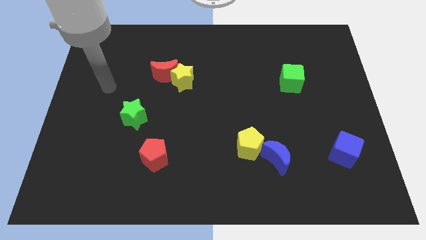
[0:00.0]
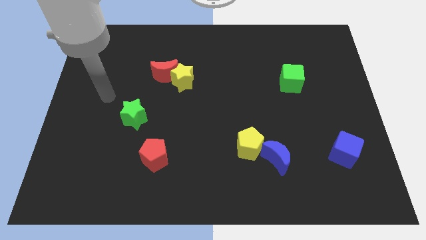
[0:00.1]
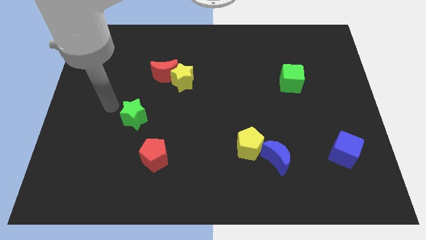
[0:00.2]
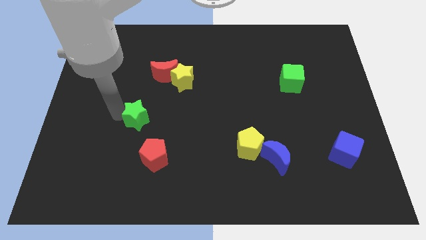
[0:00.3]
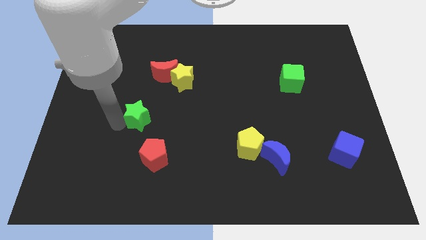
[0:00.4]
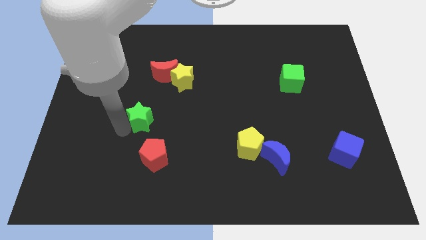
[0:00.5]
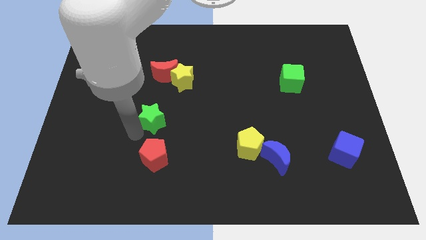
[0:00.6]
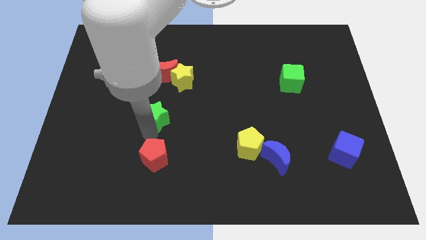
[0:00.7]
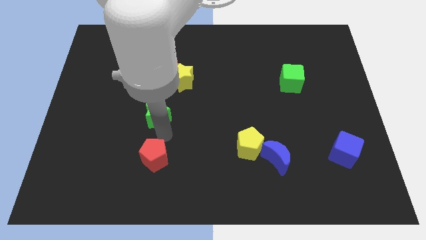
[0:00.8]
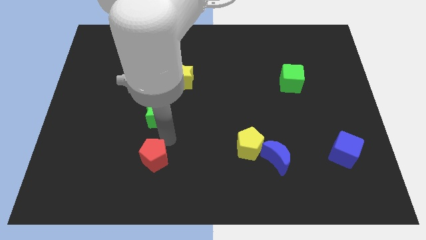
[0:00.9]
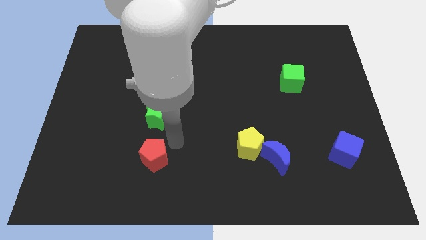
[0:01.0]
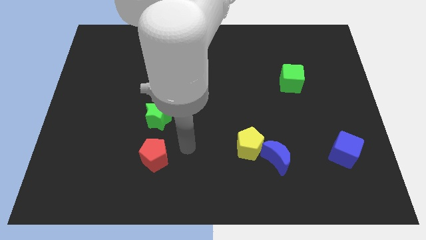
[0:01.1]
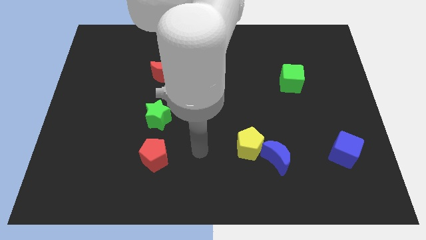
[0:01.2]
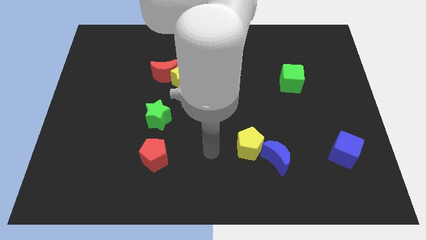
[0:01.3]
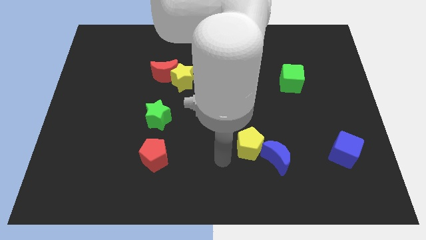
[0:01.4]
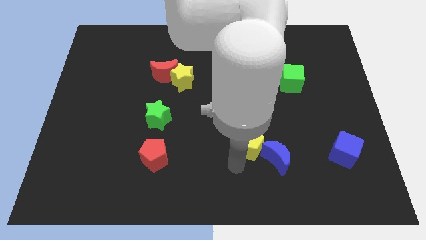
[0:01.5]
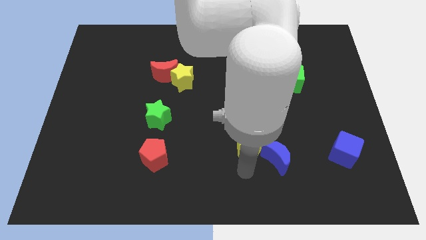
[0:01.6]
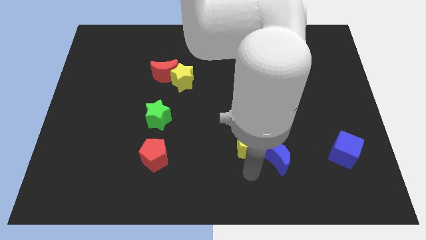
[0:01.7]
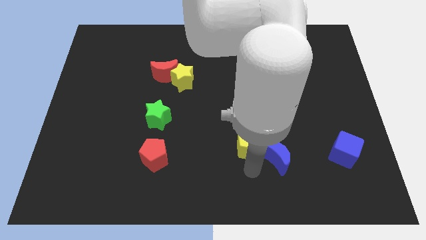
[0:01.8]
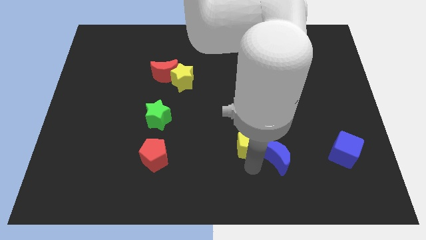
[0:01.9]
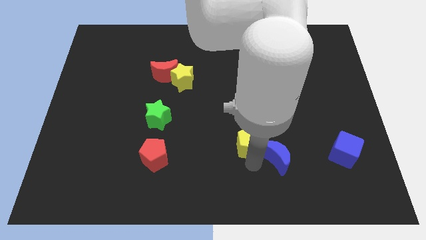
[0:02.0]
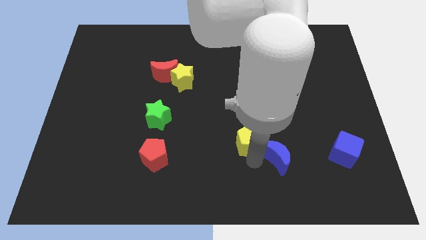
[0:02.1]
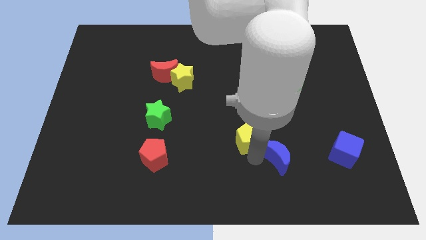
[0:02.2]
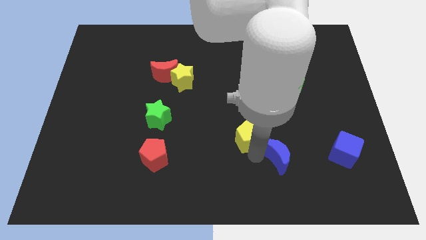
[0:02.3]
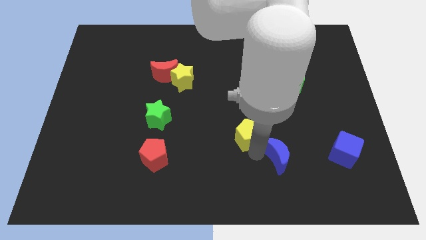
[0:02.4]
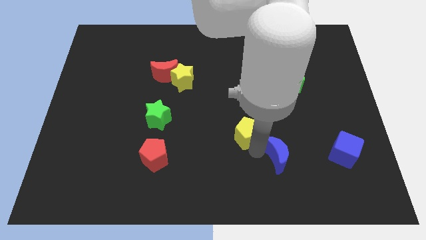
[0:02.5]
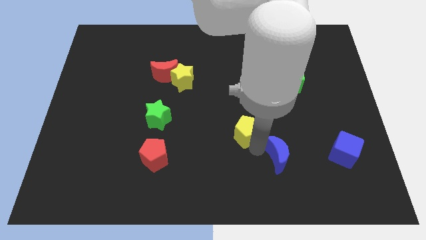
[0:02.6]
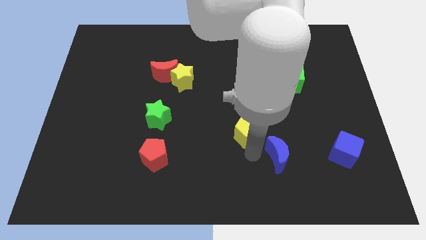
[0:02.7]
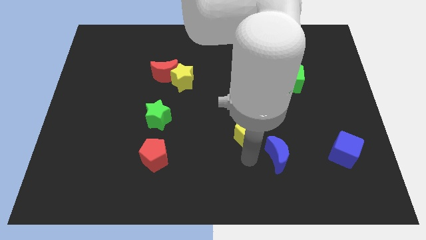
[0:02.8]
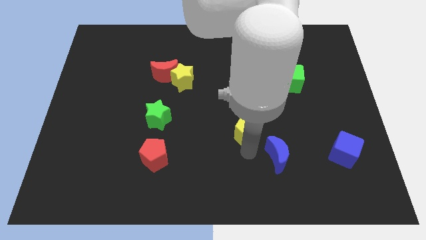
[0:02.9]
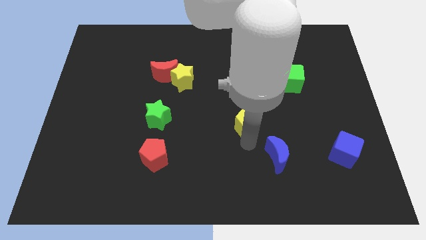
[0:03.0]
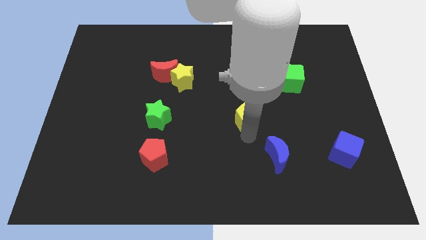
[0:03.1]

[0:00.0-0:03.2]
slightly push the yellow pentagon up

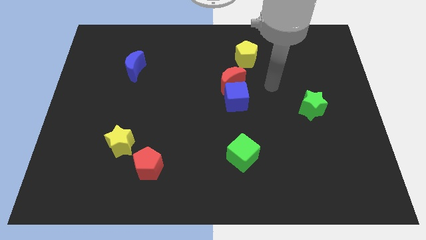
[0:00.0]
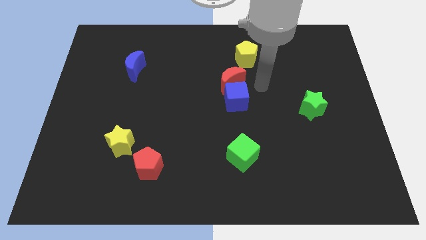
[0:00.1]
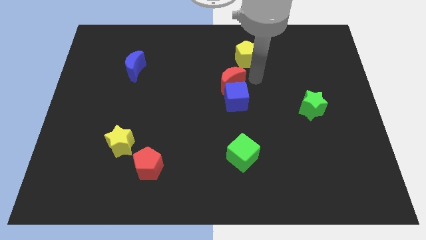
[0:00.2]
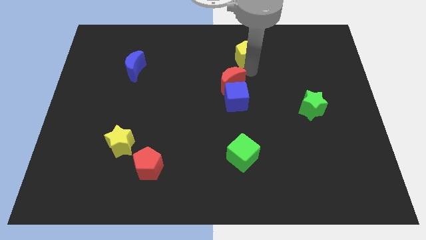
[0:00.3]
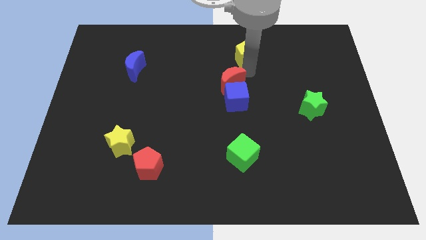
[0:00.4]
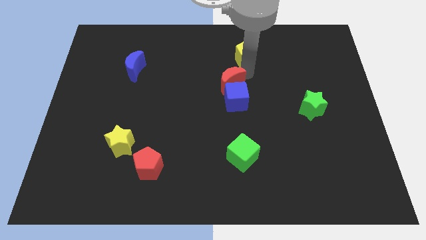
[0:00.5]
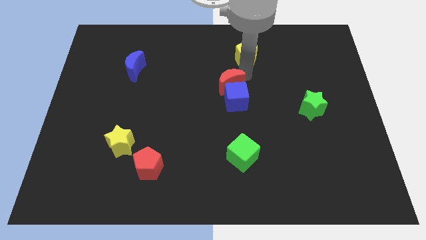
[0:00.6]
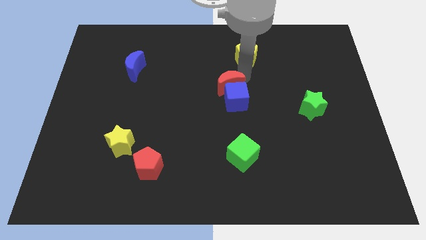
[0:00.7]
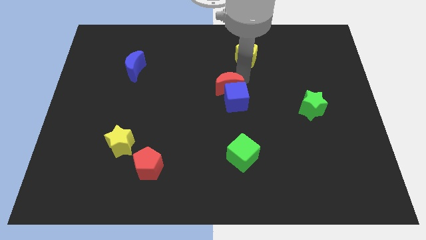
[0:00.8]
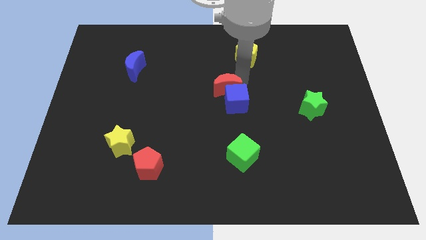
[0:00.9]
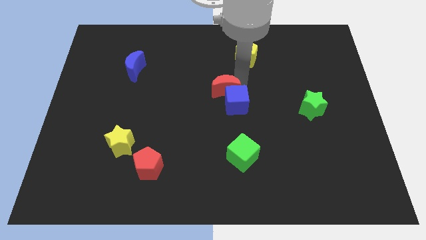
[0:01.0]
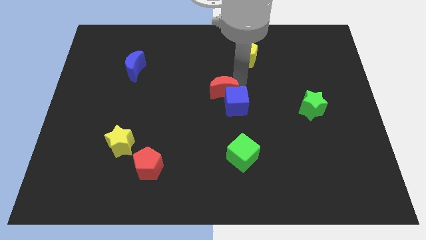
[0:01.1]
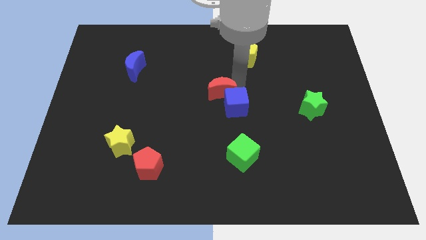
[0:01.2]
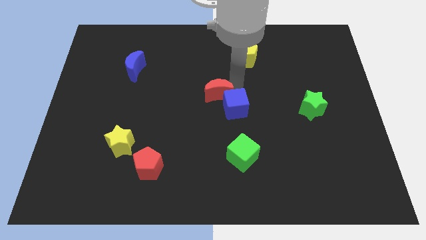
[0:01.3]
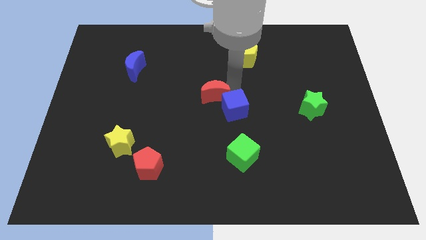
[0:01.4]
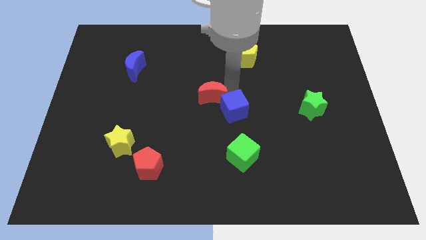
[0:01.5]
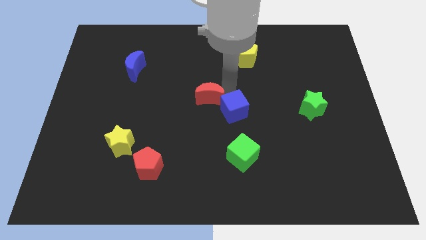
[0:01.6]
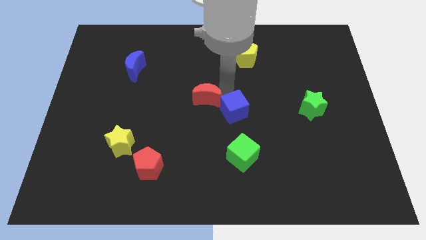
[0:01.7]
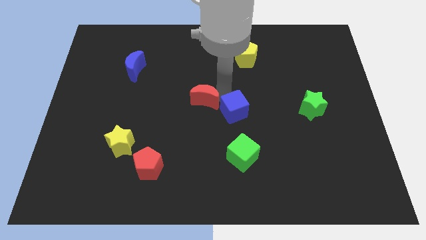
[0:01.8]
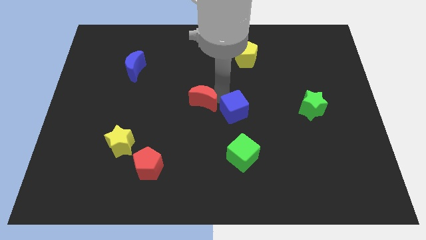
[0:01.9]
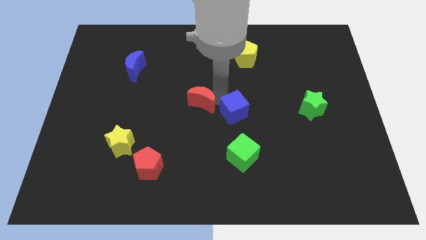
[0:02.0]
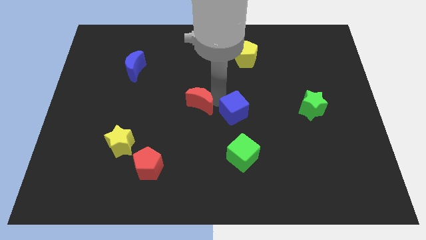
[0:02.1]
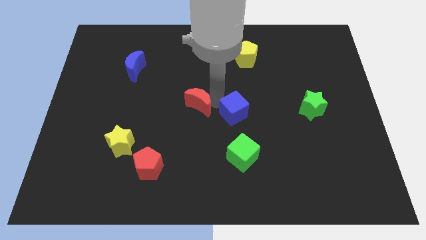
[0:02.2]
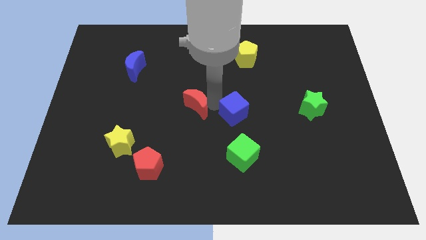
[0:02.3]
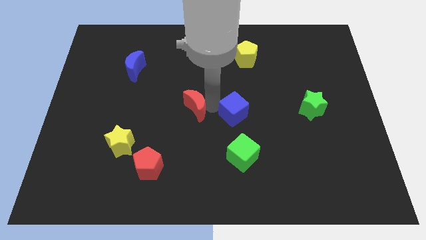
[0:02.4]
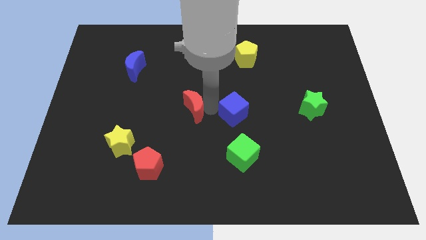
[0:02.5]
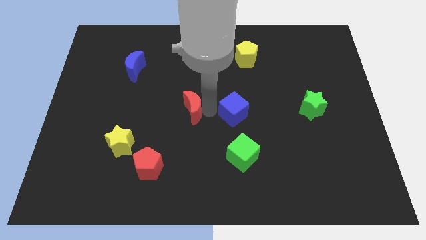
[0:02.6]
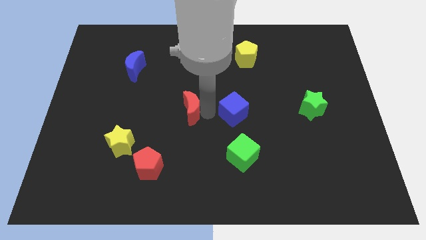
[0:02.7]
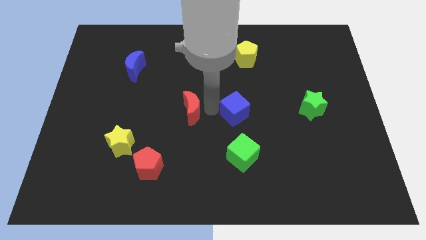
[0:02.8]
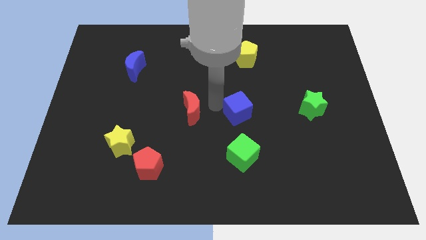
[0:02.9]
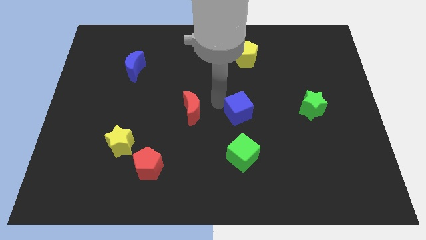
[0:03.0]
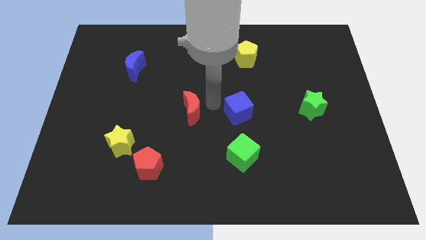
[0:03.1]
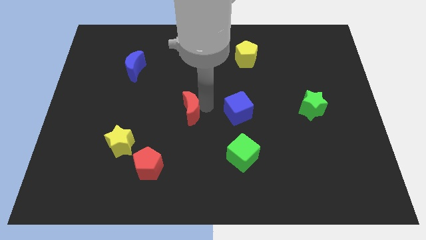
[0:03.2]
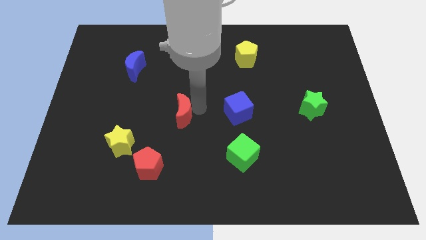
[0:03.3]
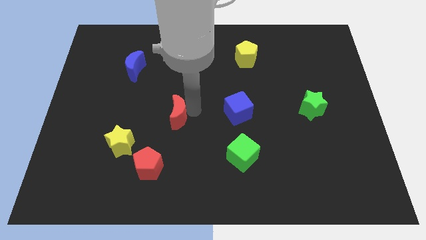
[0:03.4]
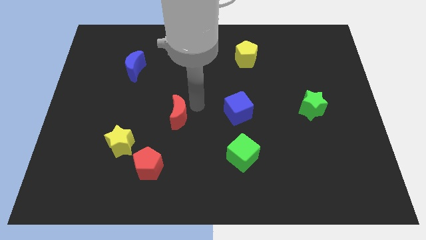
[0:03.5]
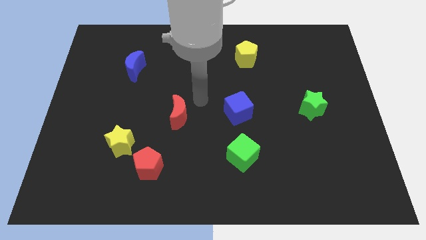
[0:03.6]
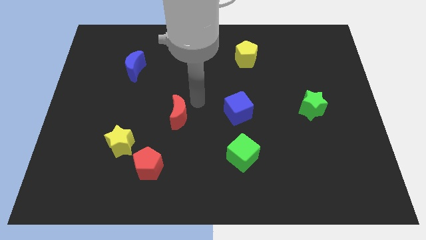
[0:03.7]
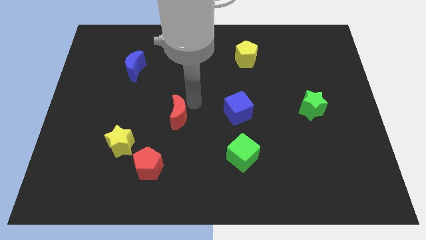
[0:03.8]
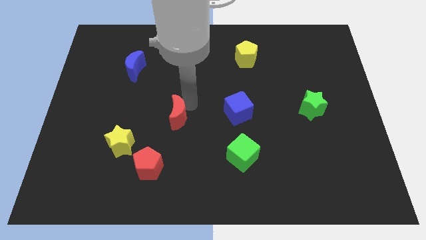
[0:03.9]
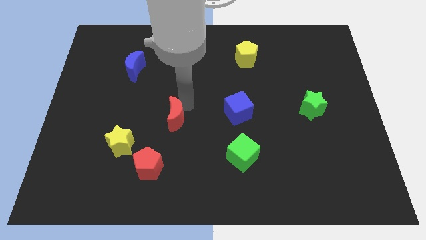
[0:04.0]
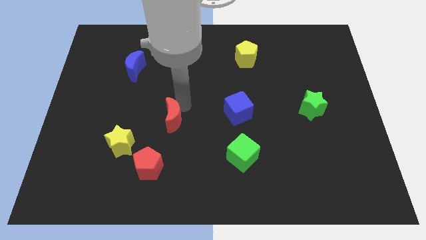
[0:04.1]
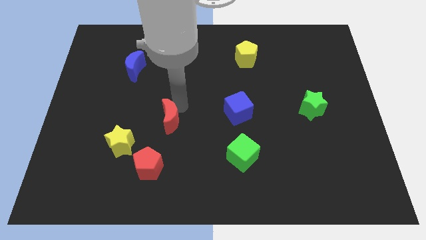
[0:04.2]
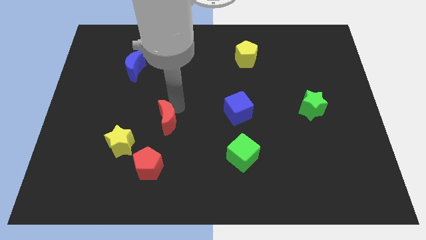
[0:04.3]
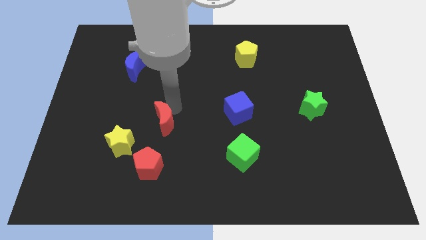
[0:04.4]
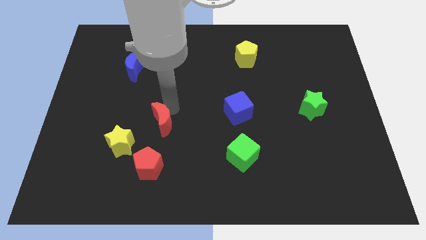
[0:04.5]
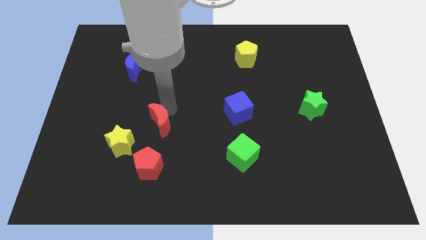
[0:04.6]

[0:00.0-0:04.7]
slide the red moon downwards and then to the left

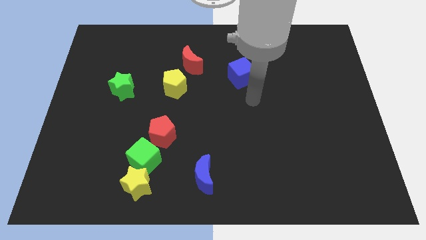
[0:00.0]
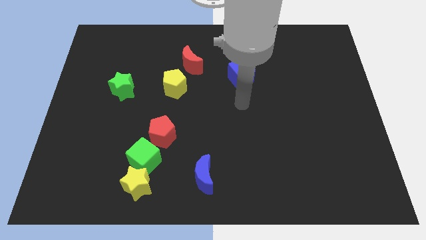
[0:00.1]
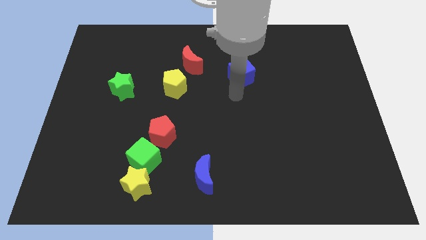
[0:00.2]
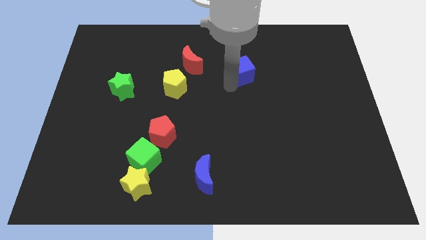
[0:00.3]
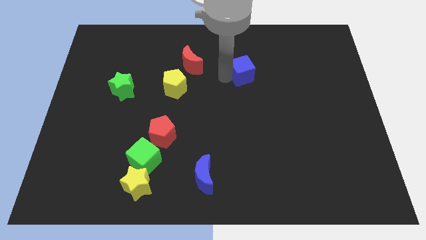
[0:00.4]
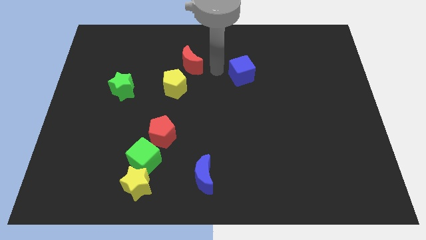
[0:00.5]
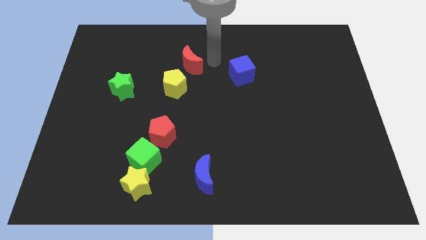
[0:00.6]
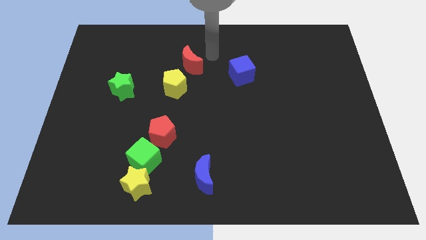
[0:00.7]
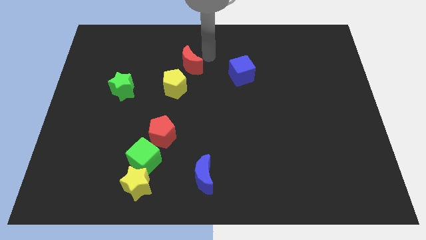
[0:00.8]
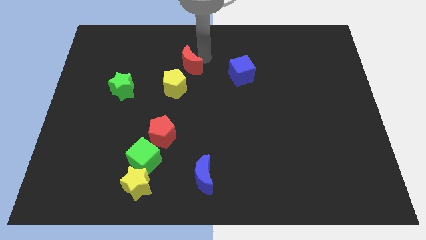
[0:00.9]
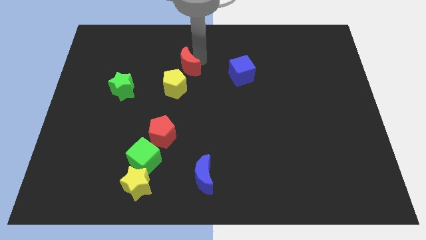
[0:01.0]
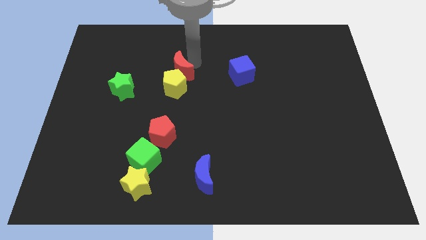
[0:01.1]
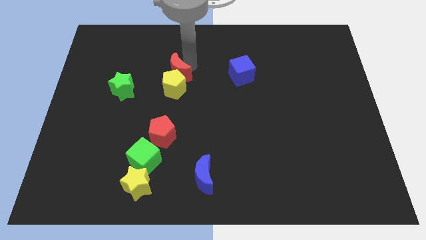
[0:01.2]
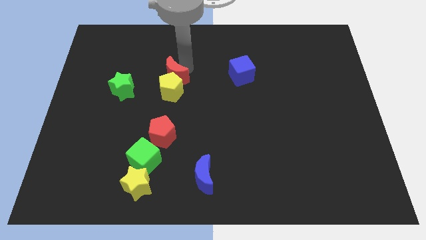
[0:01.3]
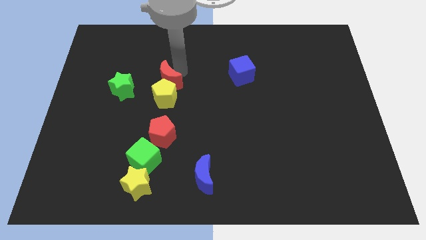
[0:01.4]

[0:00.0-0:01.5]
push the red moon down and to the left diagonally somewhat
